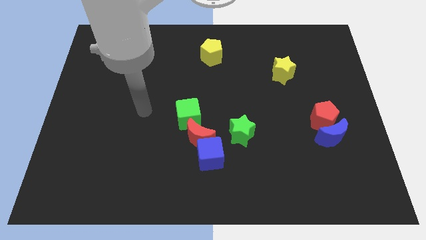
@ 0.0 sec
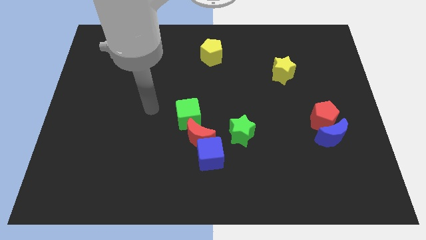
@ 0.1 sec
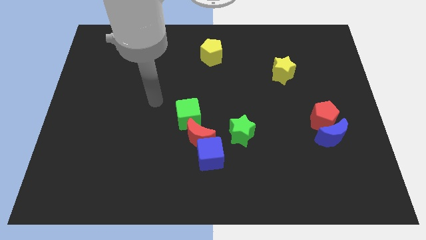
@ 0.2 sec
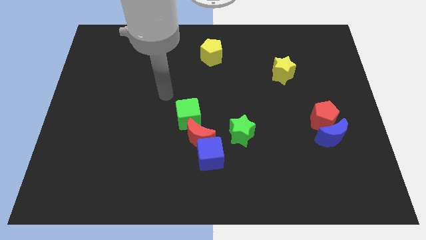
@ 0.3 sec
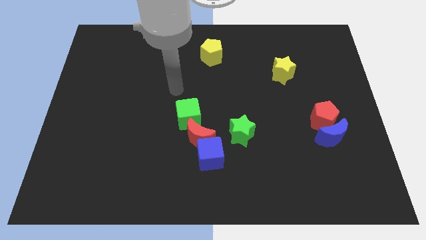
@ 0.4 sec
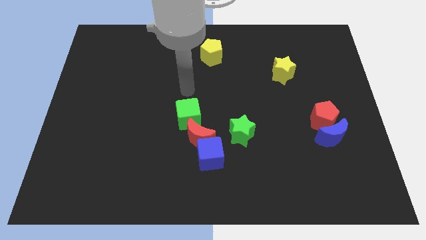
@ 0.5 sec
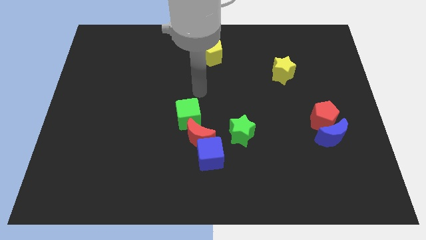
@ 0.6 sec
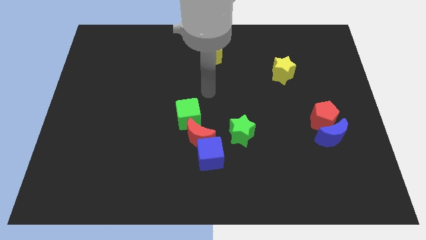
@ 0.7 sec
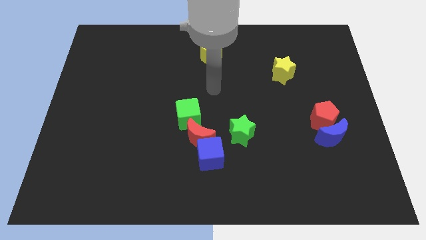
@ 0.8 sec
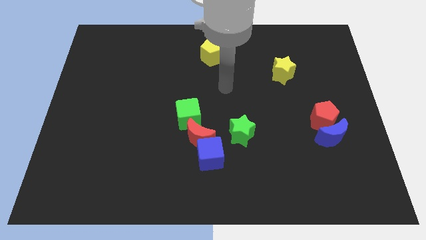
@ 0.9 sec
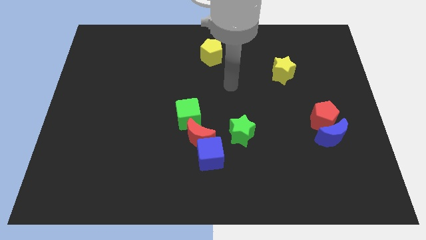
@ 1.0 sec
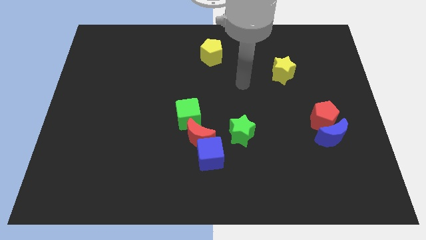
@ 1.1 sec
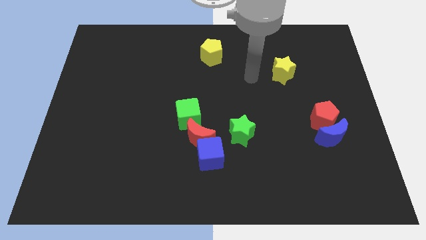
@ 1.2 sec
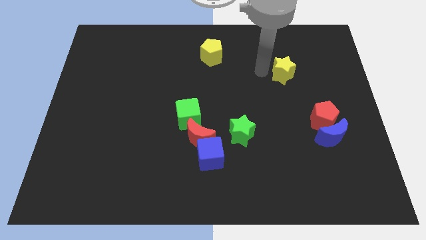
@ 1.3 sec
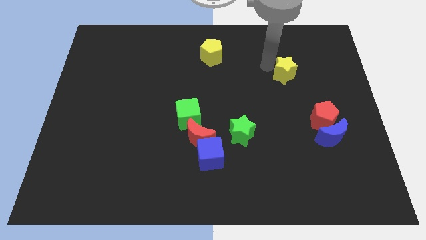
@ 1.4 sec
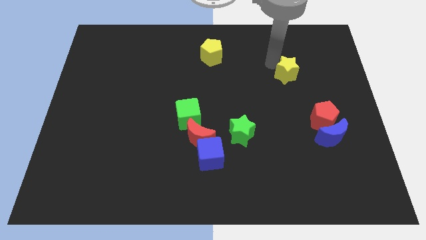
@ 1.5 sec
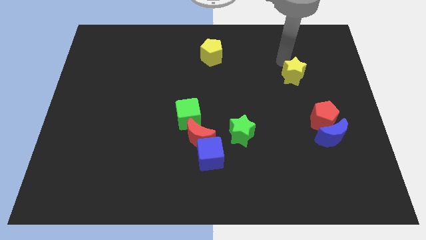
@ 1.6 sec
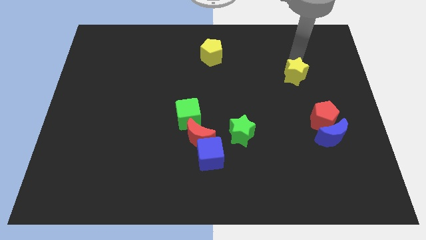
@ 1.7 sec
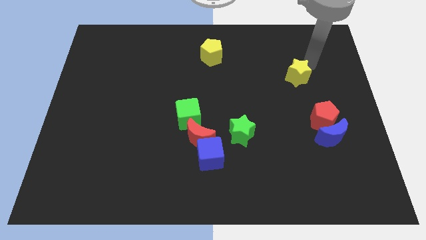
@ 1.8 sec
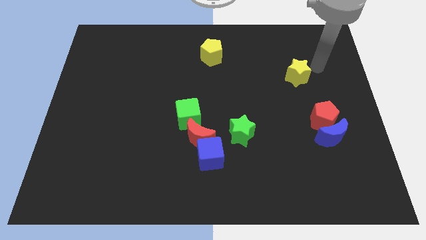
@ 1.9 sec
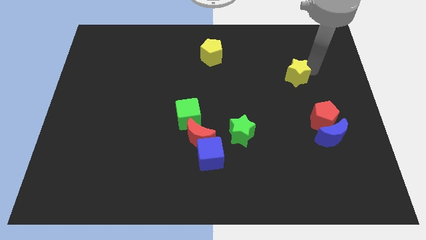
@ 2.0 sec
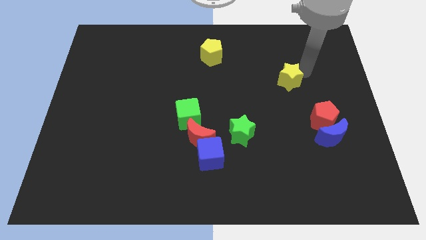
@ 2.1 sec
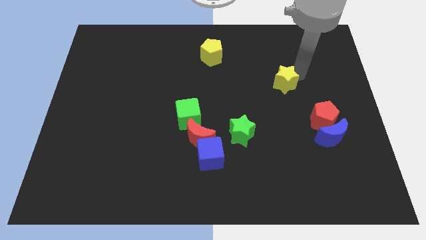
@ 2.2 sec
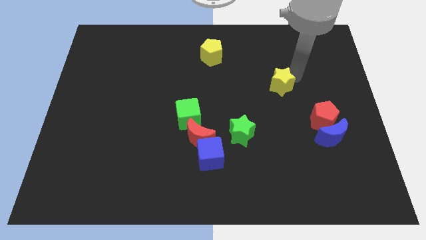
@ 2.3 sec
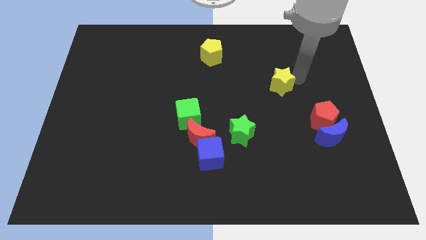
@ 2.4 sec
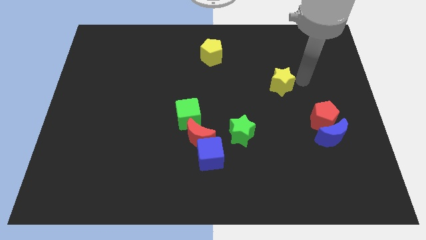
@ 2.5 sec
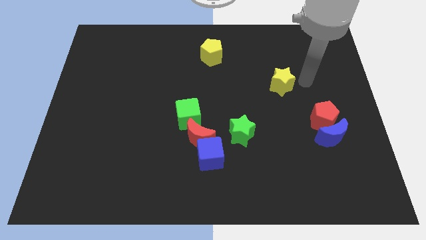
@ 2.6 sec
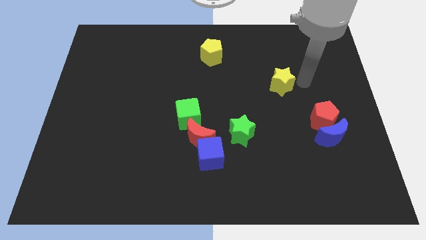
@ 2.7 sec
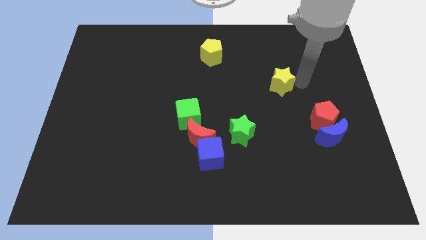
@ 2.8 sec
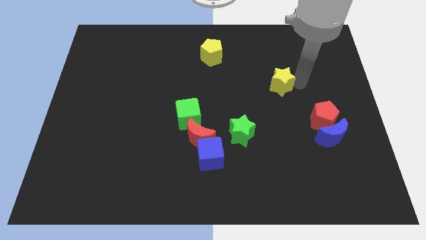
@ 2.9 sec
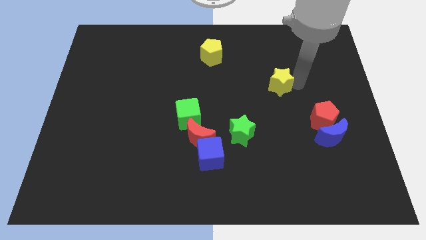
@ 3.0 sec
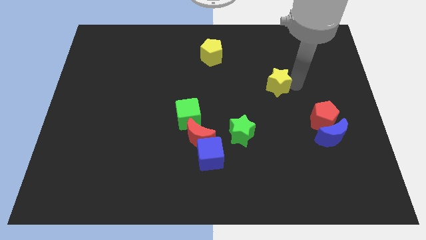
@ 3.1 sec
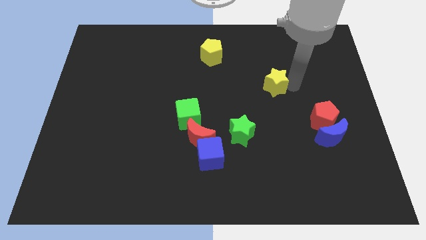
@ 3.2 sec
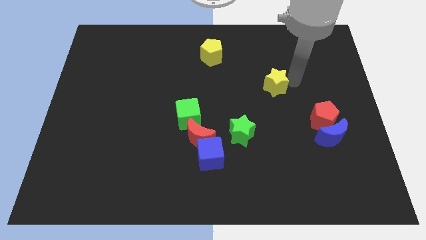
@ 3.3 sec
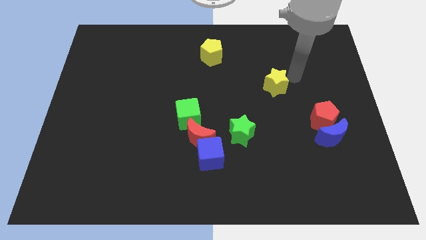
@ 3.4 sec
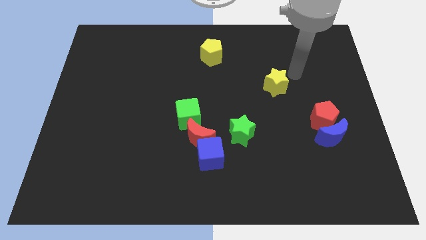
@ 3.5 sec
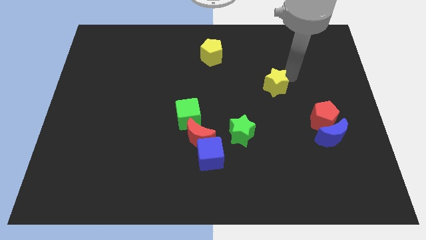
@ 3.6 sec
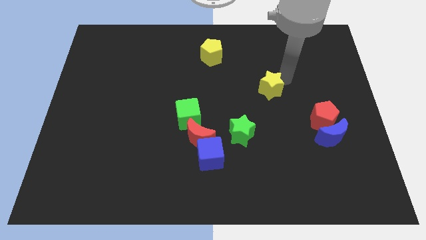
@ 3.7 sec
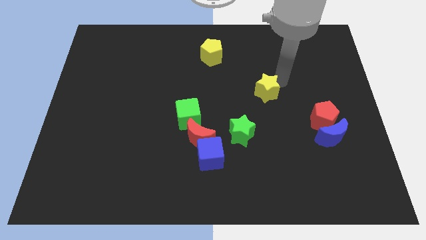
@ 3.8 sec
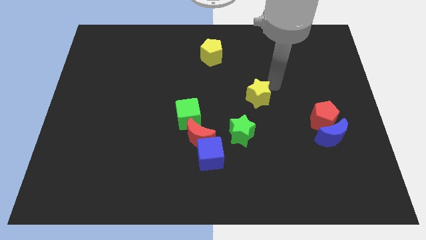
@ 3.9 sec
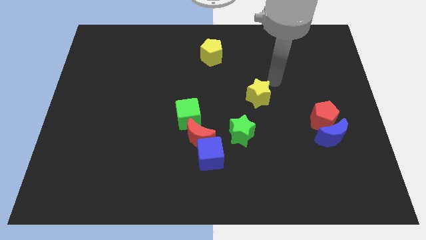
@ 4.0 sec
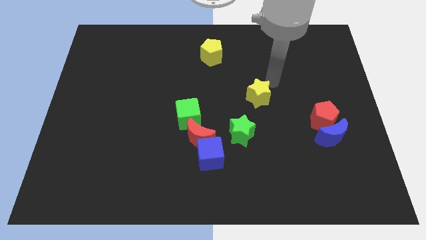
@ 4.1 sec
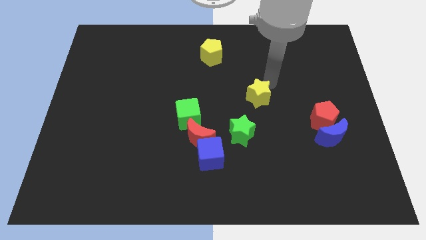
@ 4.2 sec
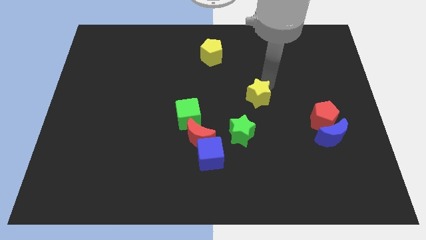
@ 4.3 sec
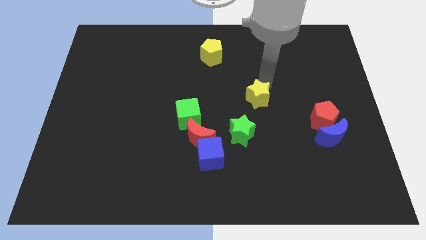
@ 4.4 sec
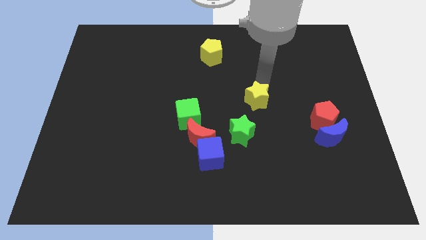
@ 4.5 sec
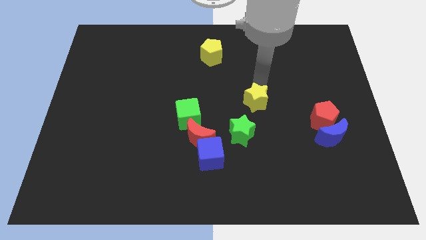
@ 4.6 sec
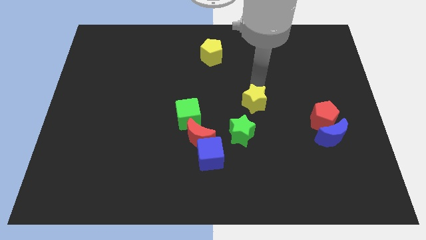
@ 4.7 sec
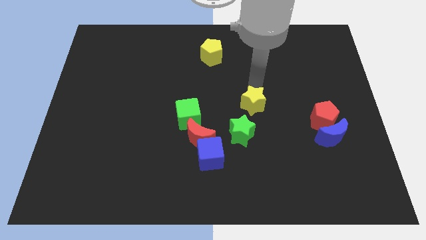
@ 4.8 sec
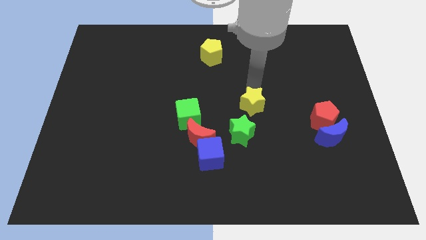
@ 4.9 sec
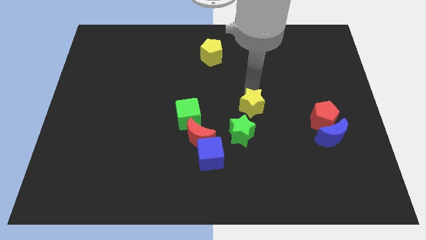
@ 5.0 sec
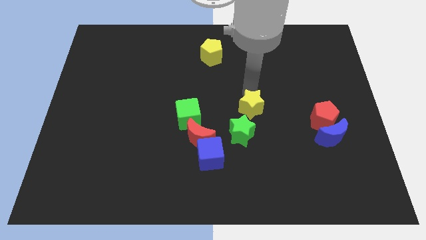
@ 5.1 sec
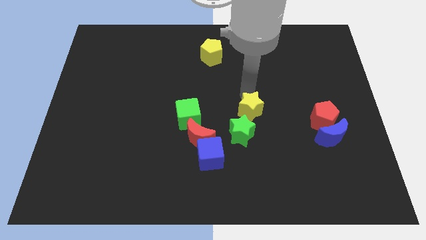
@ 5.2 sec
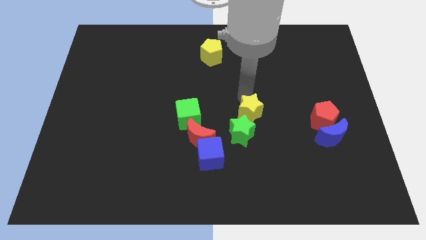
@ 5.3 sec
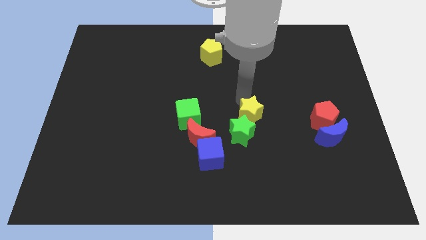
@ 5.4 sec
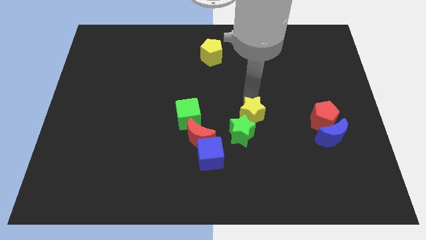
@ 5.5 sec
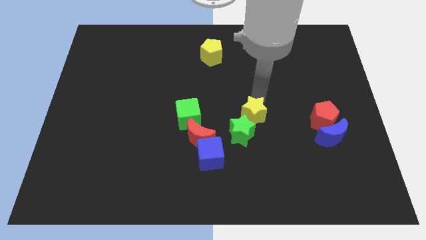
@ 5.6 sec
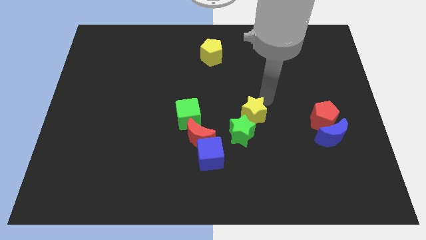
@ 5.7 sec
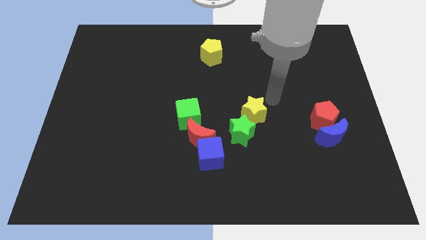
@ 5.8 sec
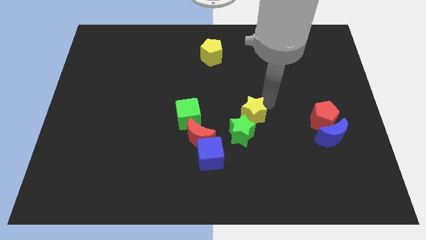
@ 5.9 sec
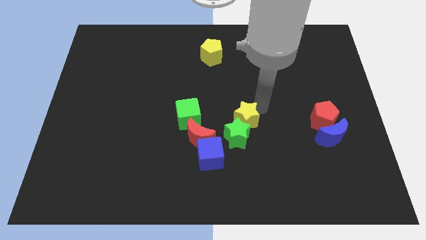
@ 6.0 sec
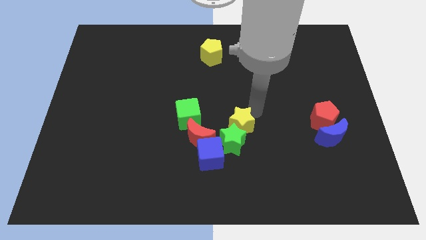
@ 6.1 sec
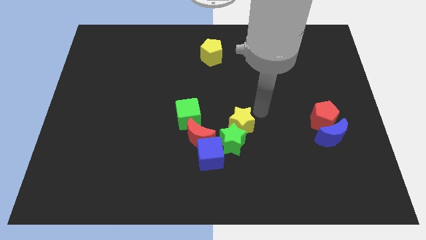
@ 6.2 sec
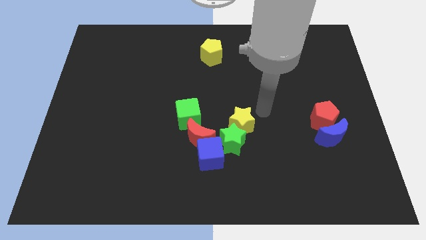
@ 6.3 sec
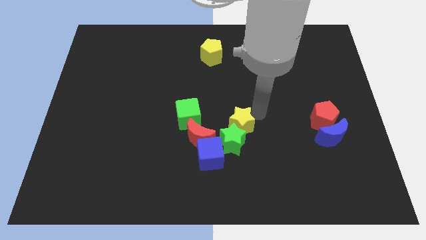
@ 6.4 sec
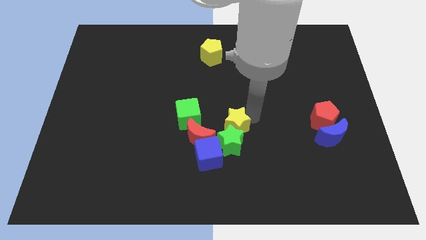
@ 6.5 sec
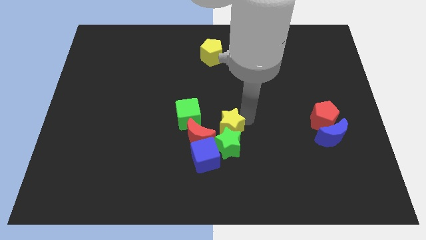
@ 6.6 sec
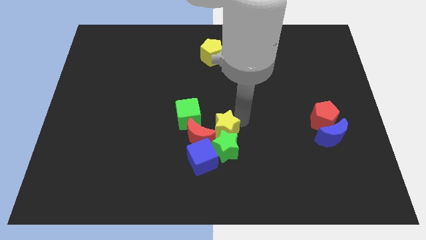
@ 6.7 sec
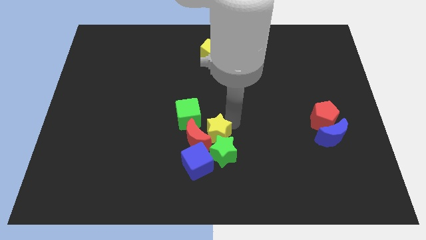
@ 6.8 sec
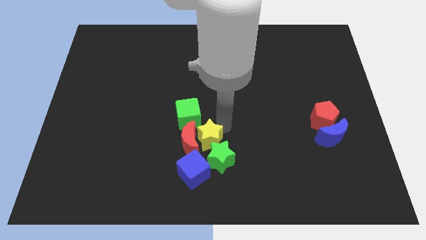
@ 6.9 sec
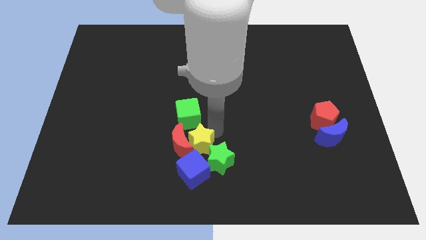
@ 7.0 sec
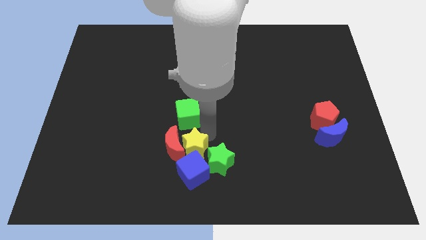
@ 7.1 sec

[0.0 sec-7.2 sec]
put the yellow star next to the blue cube

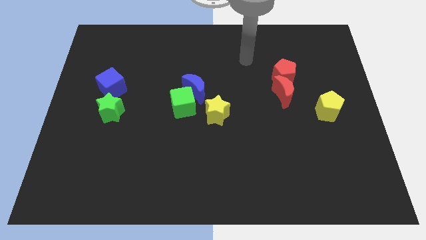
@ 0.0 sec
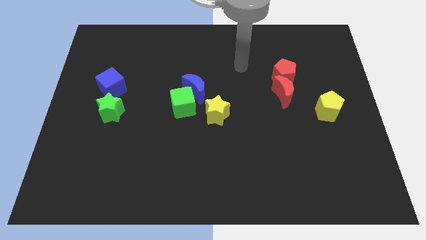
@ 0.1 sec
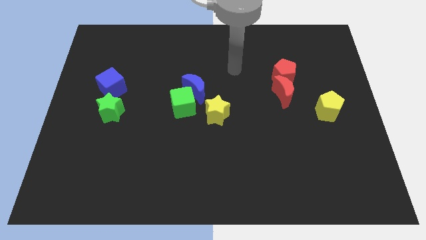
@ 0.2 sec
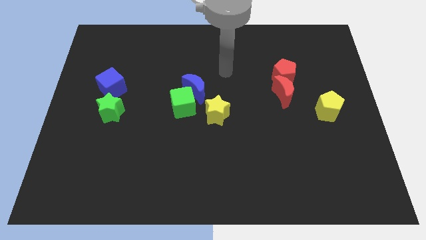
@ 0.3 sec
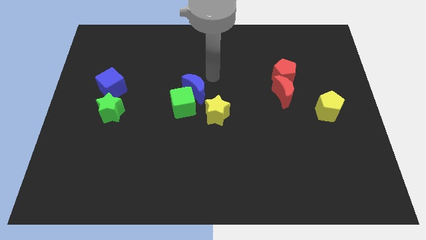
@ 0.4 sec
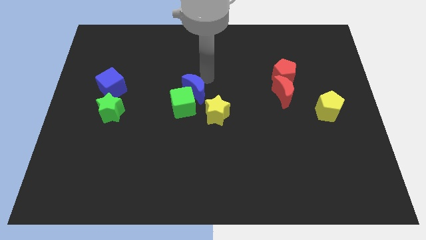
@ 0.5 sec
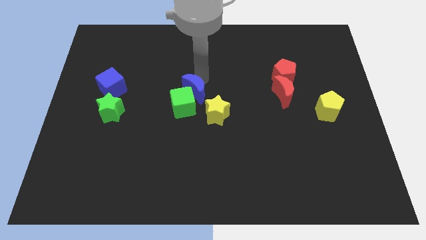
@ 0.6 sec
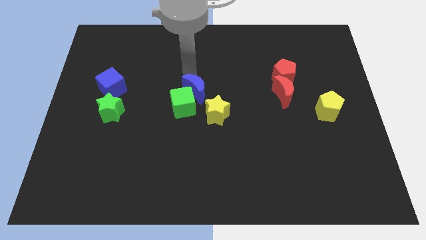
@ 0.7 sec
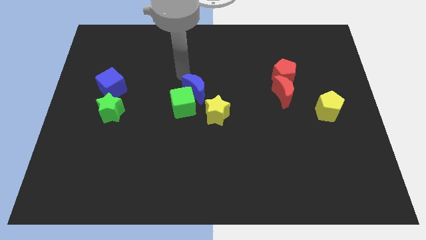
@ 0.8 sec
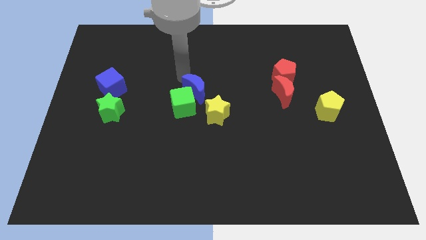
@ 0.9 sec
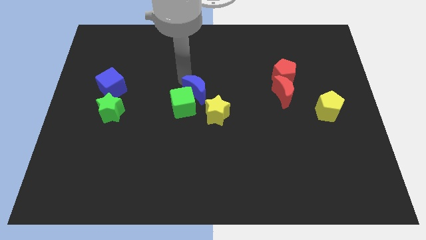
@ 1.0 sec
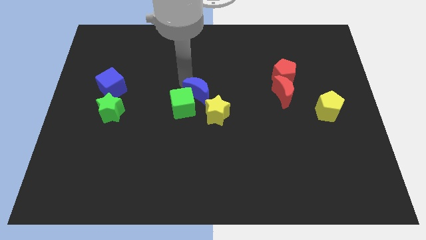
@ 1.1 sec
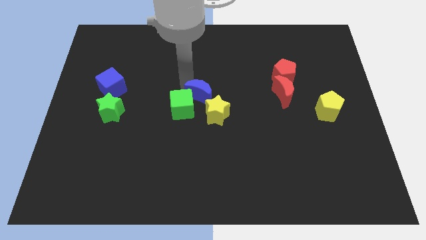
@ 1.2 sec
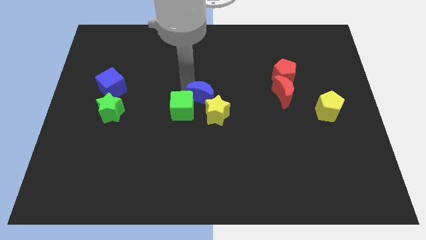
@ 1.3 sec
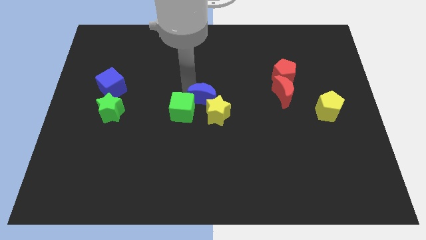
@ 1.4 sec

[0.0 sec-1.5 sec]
push the blue moon next to the yellow star
